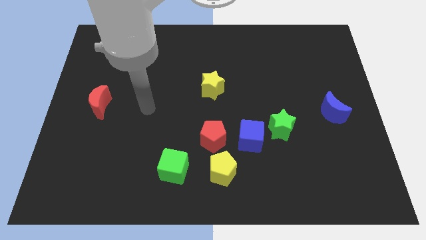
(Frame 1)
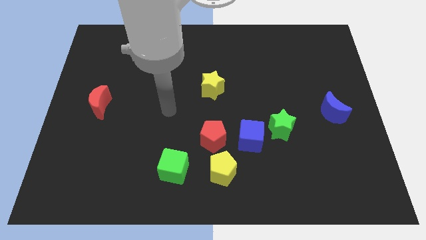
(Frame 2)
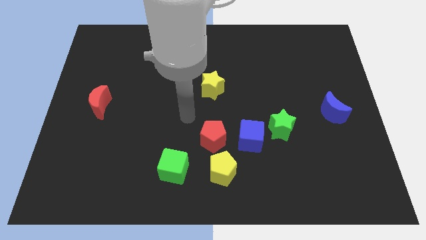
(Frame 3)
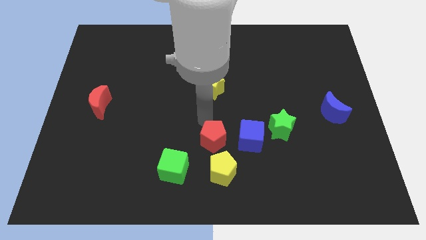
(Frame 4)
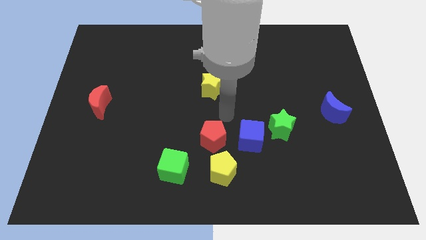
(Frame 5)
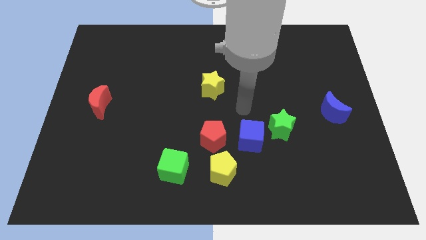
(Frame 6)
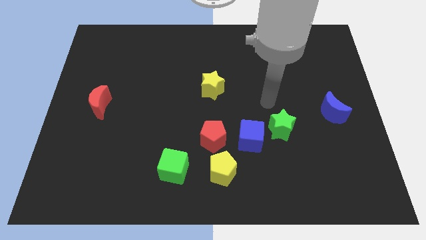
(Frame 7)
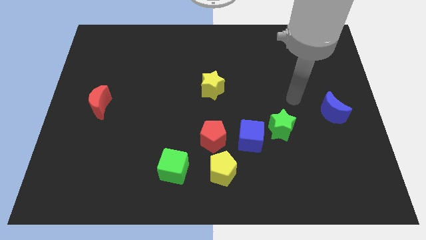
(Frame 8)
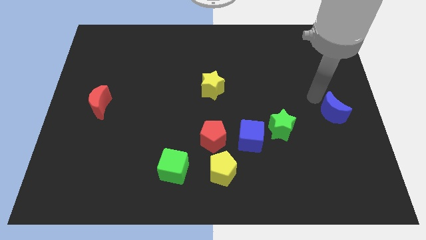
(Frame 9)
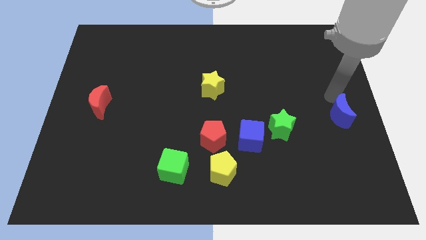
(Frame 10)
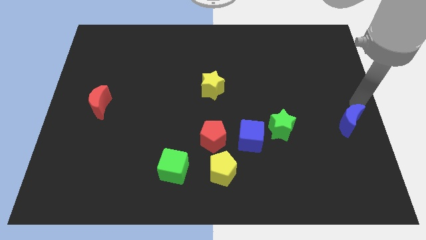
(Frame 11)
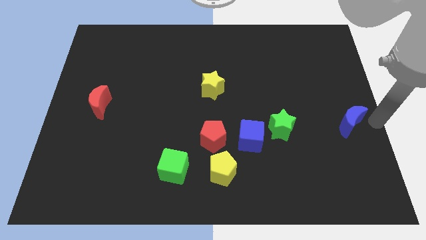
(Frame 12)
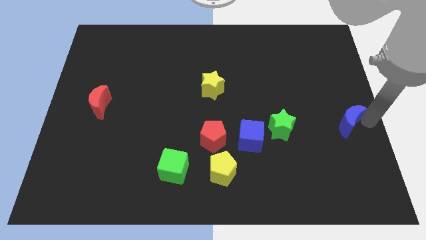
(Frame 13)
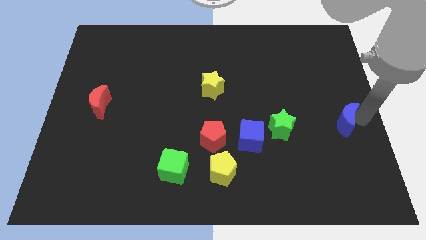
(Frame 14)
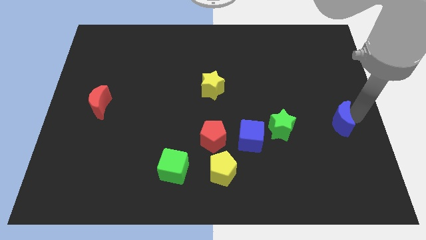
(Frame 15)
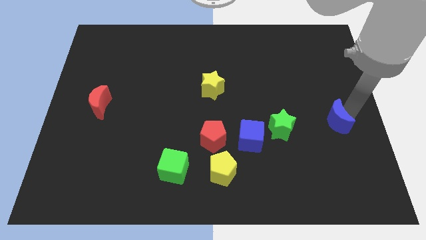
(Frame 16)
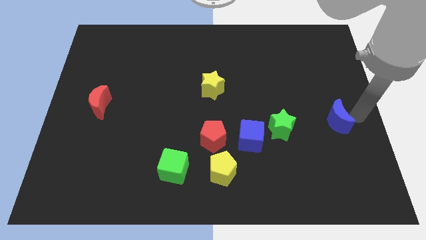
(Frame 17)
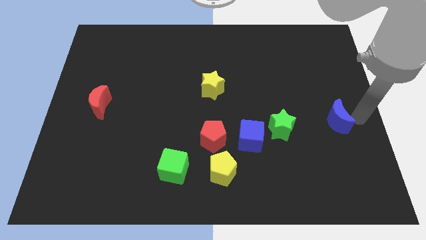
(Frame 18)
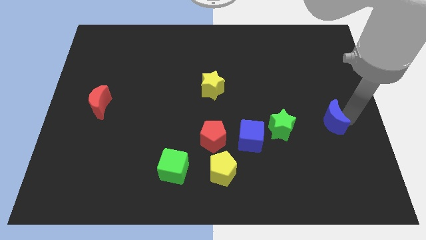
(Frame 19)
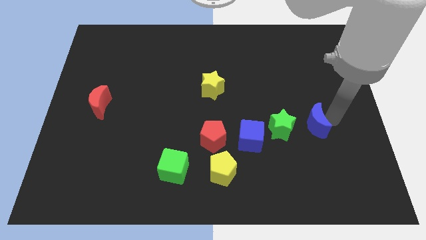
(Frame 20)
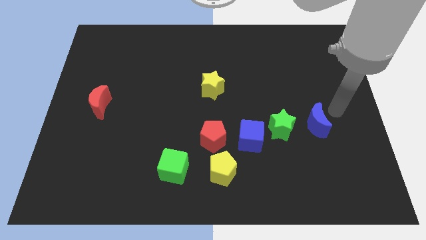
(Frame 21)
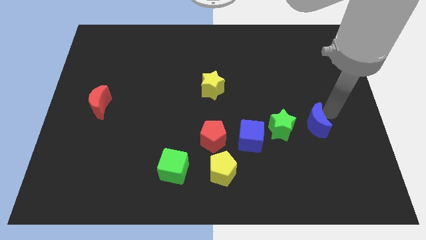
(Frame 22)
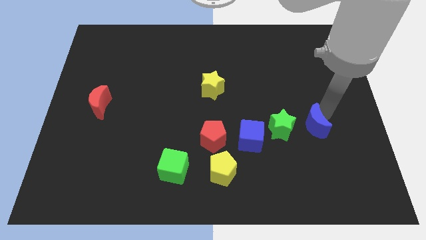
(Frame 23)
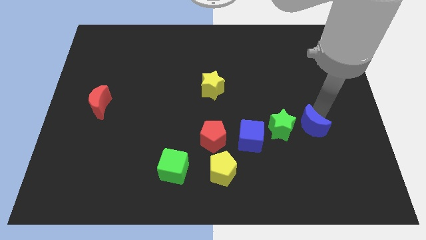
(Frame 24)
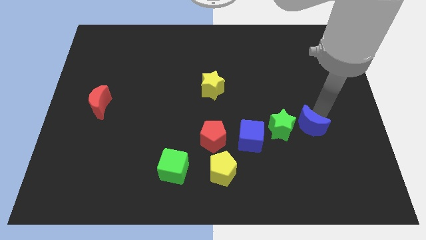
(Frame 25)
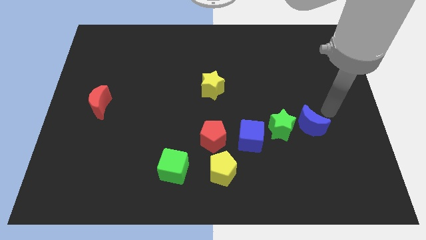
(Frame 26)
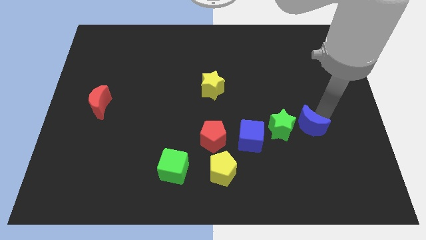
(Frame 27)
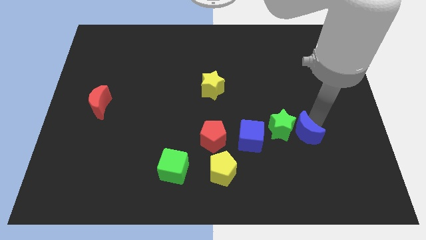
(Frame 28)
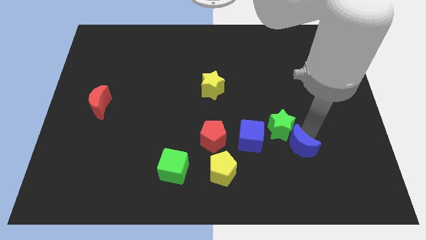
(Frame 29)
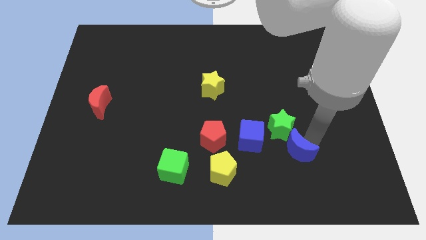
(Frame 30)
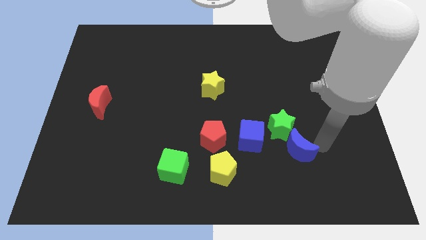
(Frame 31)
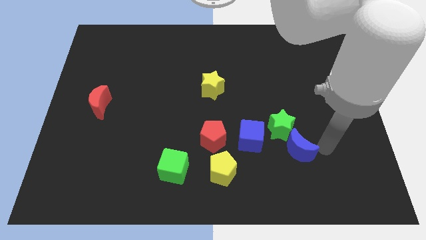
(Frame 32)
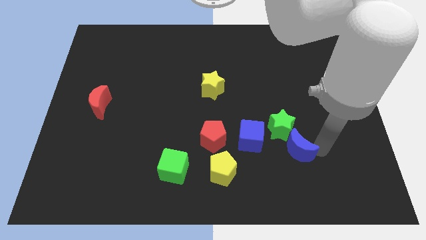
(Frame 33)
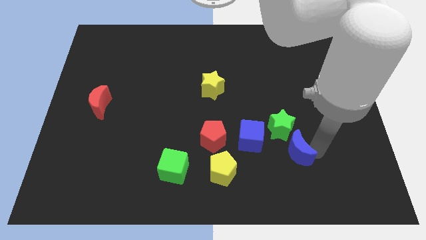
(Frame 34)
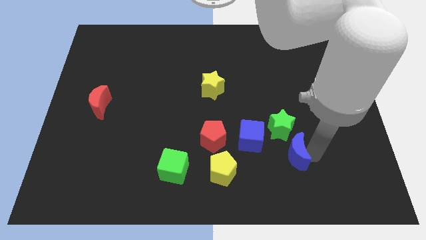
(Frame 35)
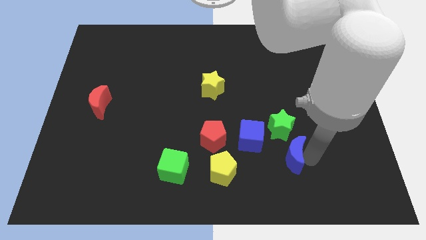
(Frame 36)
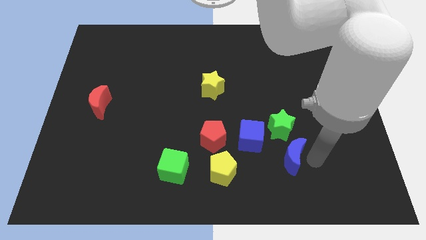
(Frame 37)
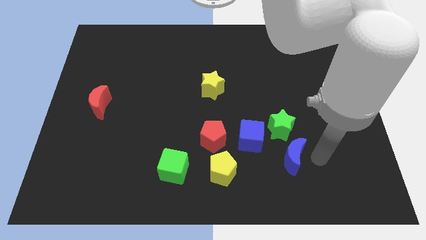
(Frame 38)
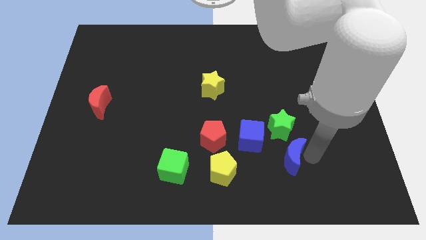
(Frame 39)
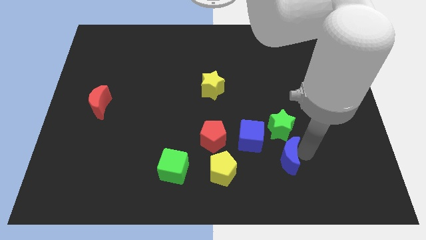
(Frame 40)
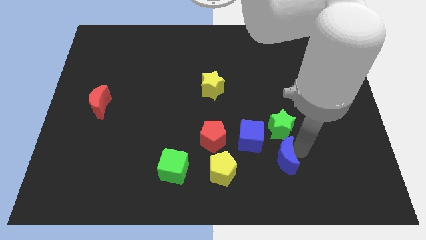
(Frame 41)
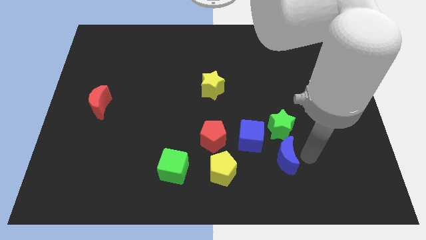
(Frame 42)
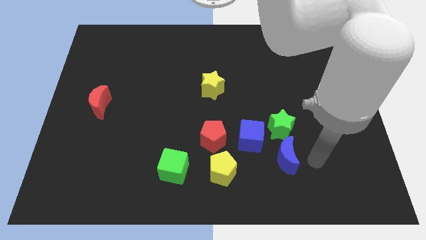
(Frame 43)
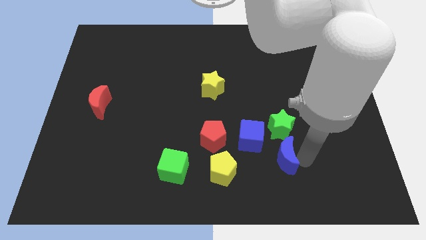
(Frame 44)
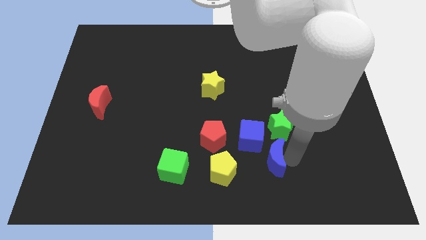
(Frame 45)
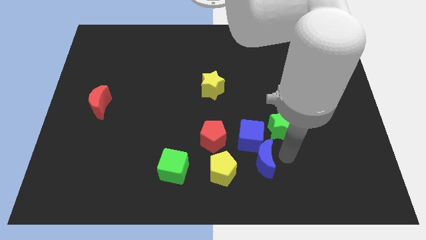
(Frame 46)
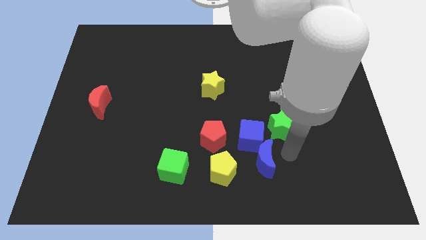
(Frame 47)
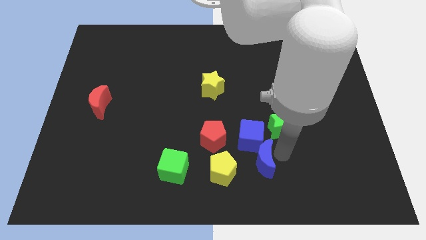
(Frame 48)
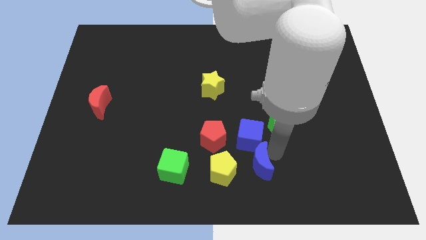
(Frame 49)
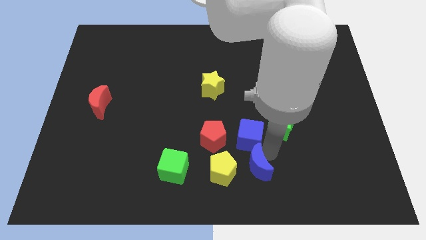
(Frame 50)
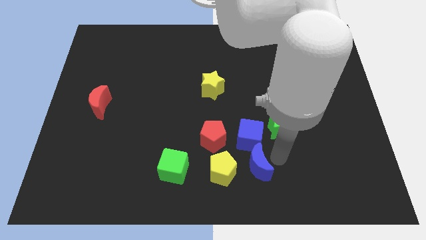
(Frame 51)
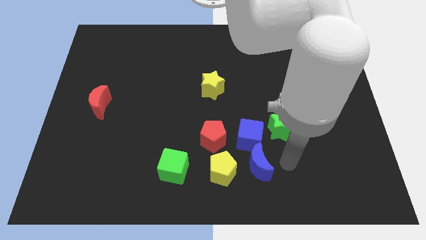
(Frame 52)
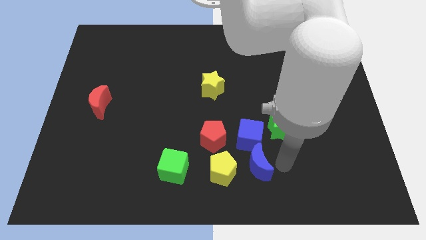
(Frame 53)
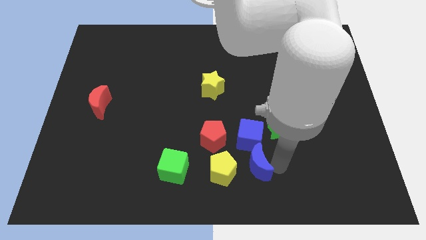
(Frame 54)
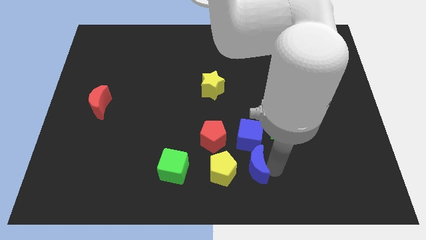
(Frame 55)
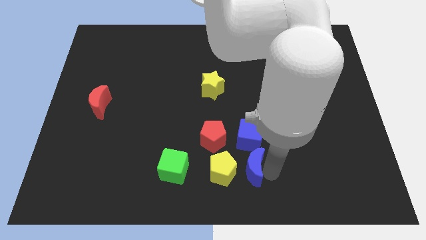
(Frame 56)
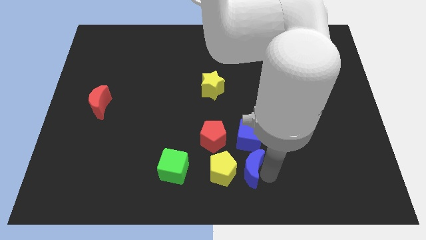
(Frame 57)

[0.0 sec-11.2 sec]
push the blue moon close to the yellow pentagon

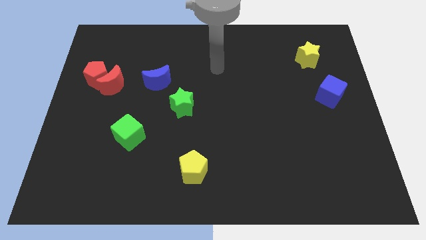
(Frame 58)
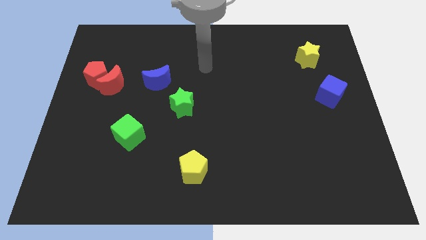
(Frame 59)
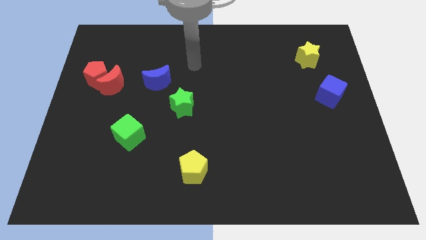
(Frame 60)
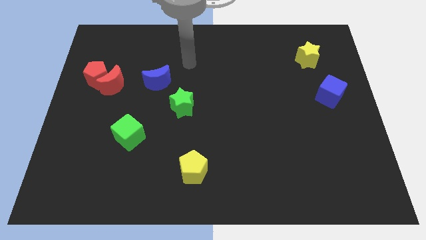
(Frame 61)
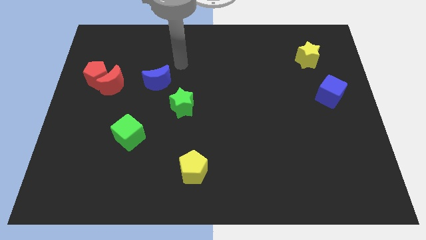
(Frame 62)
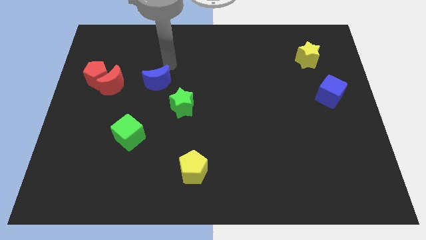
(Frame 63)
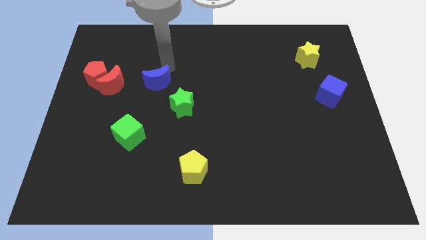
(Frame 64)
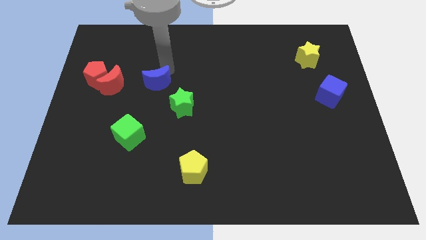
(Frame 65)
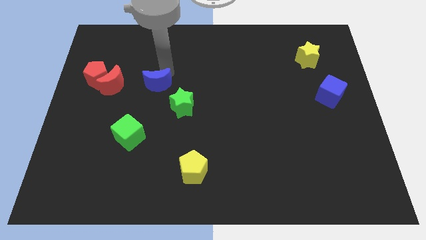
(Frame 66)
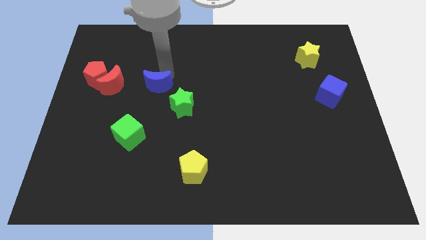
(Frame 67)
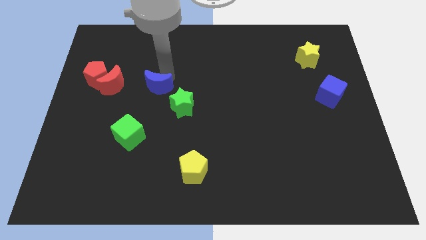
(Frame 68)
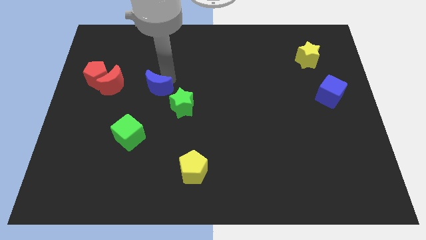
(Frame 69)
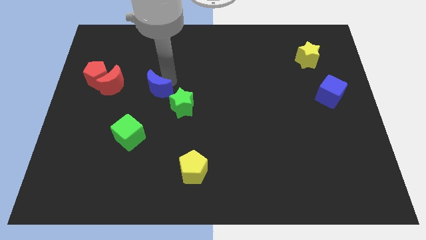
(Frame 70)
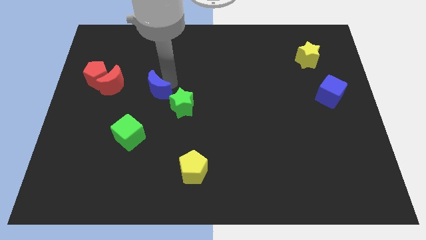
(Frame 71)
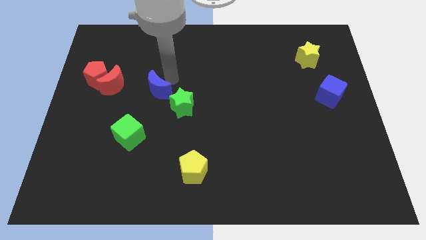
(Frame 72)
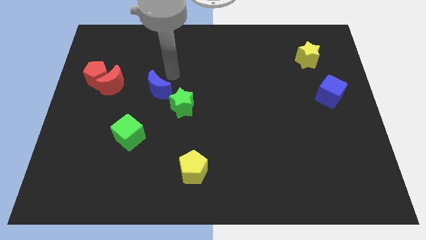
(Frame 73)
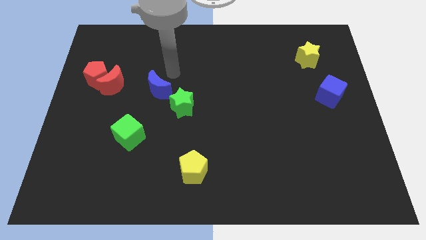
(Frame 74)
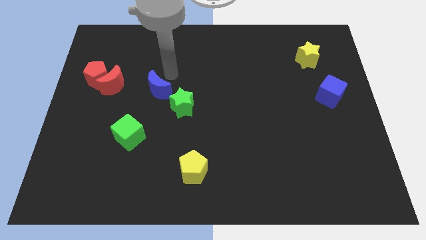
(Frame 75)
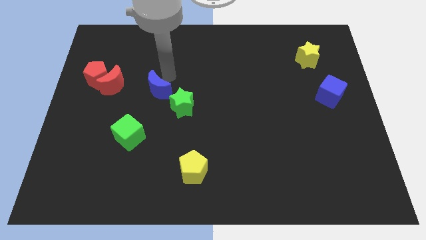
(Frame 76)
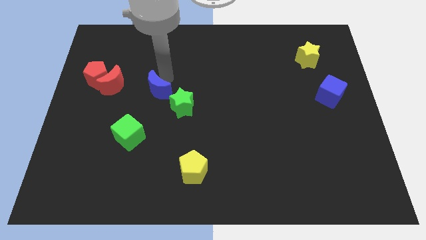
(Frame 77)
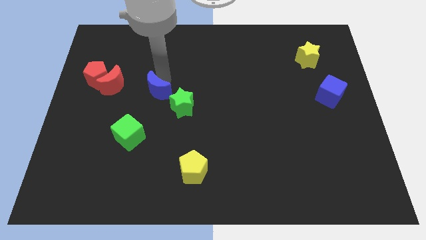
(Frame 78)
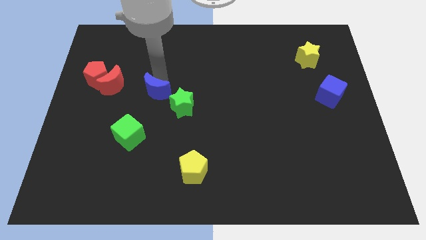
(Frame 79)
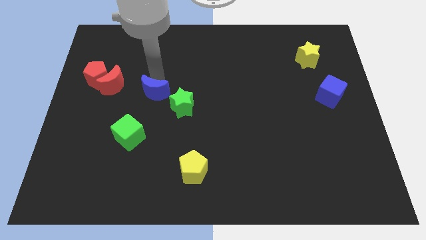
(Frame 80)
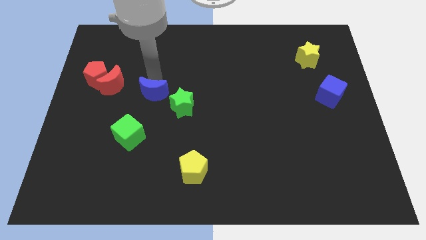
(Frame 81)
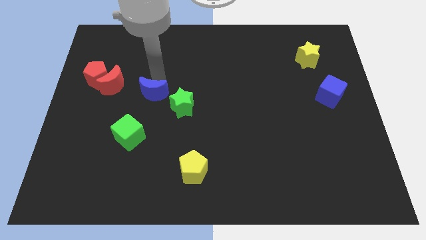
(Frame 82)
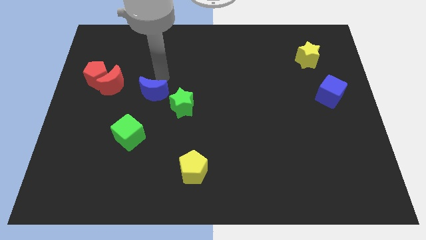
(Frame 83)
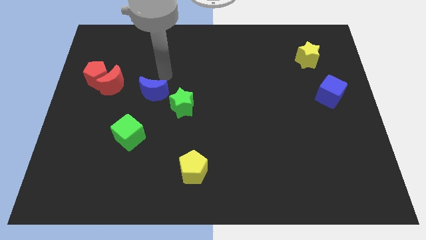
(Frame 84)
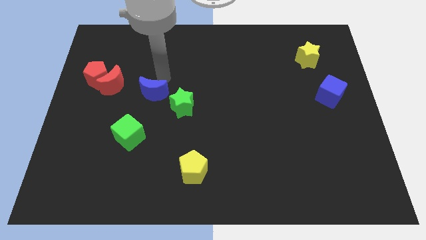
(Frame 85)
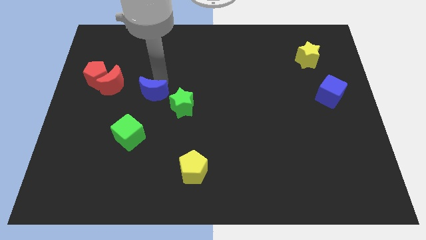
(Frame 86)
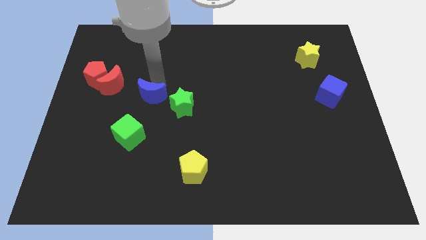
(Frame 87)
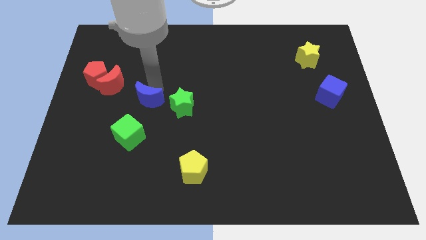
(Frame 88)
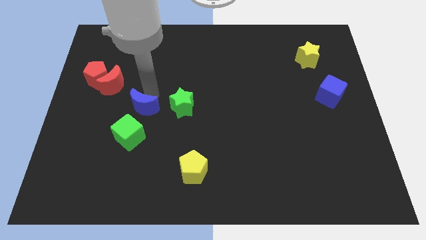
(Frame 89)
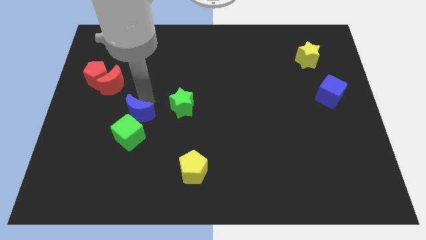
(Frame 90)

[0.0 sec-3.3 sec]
push the blue moon next to the green cube
